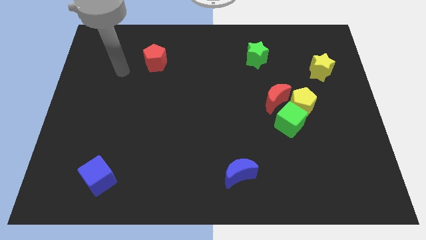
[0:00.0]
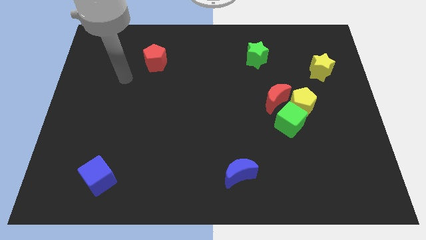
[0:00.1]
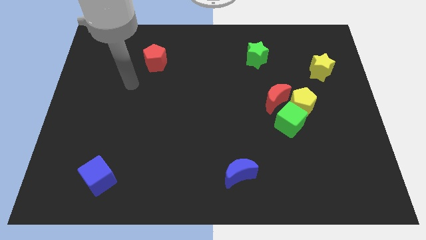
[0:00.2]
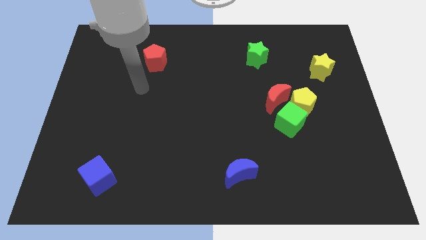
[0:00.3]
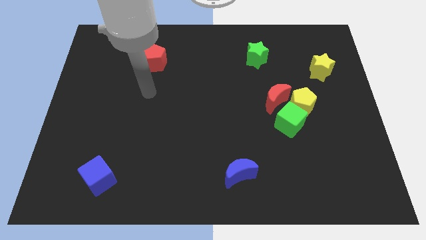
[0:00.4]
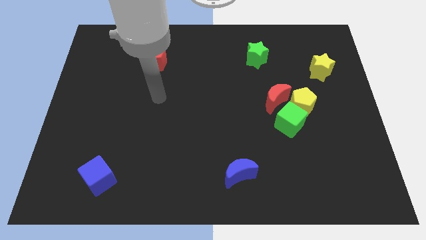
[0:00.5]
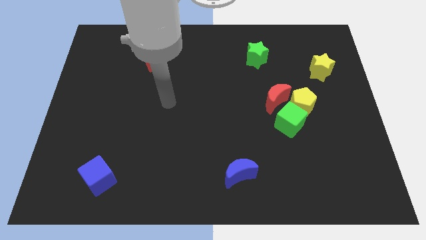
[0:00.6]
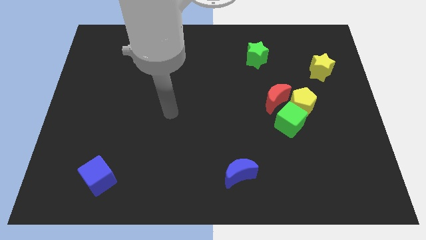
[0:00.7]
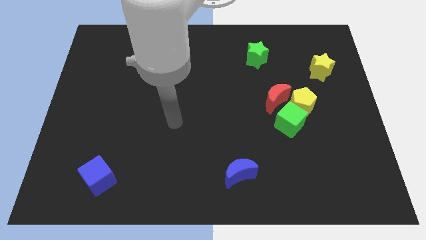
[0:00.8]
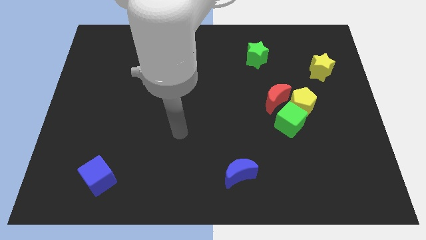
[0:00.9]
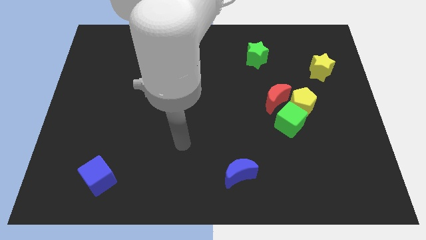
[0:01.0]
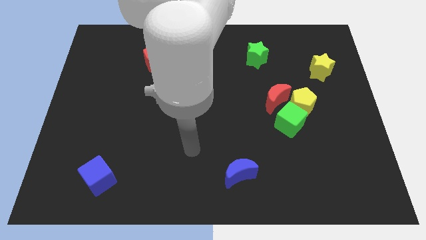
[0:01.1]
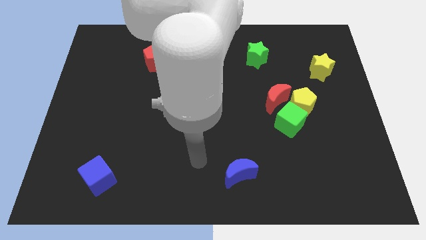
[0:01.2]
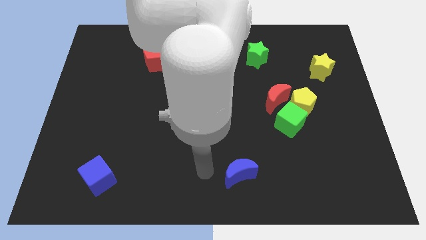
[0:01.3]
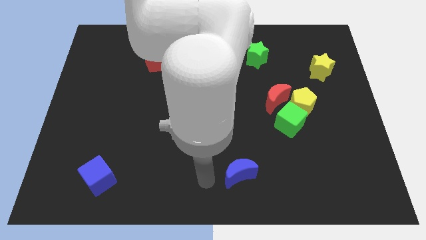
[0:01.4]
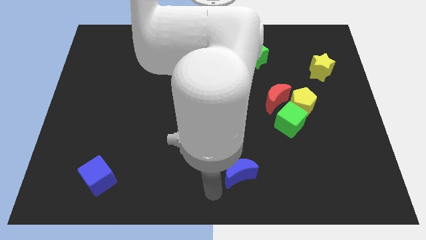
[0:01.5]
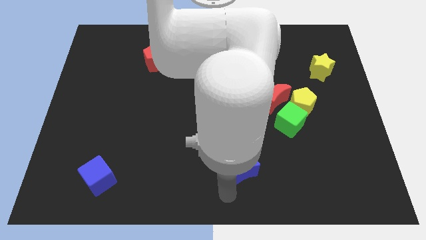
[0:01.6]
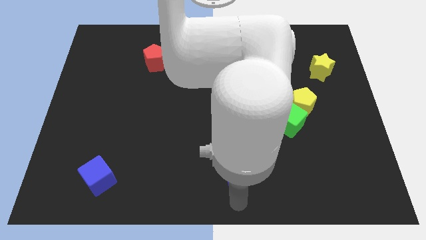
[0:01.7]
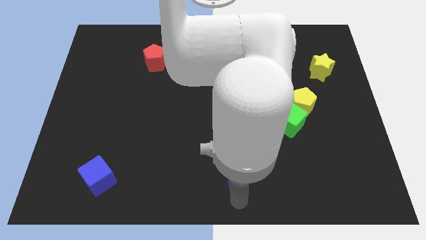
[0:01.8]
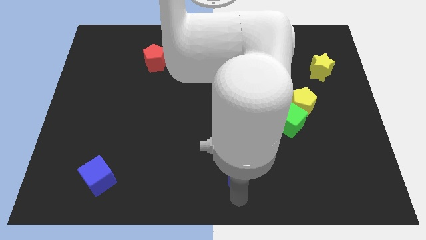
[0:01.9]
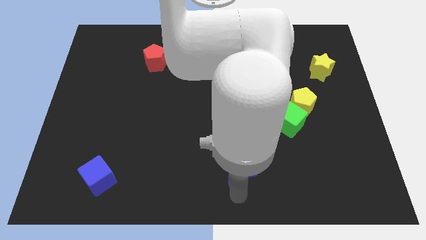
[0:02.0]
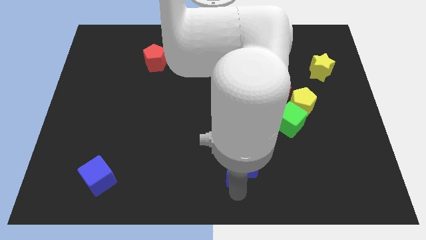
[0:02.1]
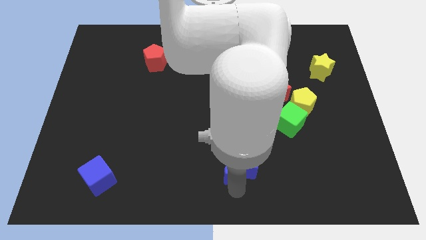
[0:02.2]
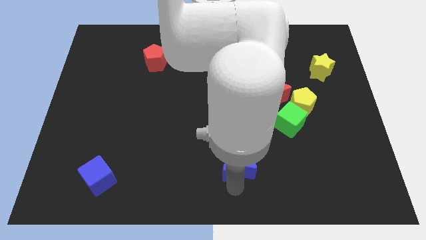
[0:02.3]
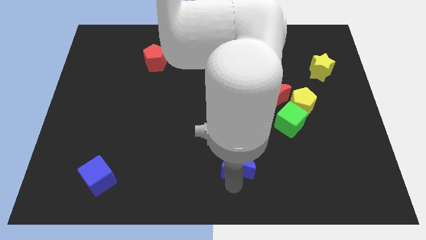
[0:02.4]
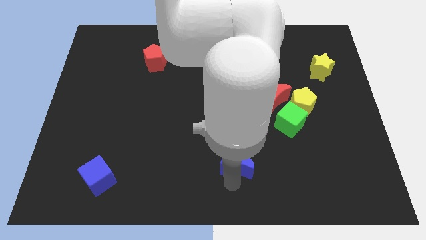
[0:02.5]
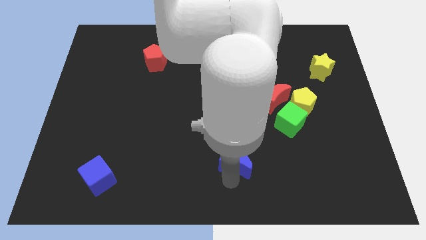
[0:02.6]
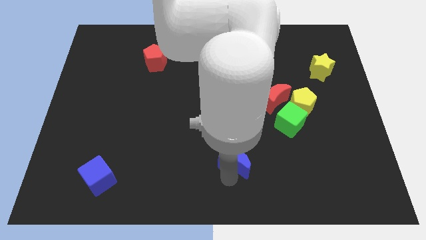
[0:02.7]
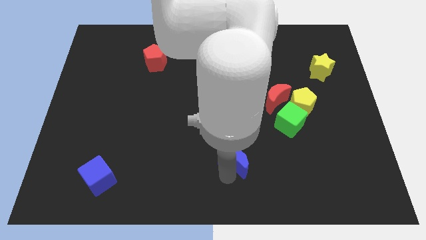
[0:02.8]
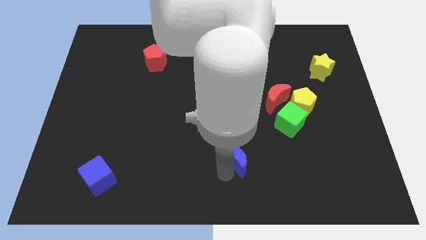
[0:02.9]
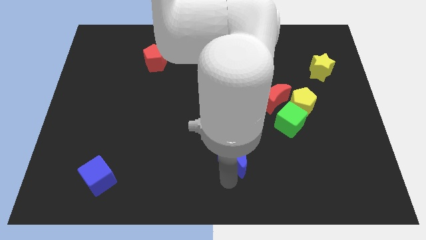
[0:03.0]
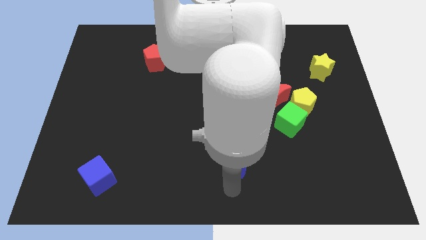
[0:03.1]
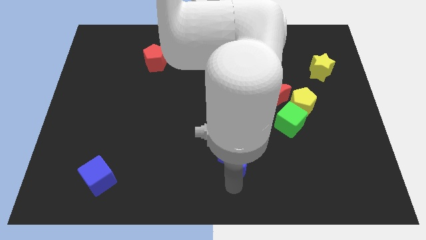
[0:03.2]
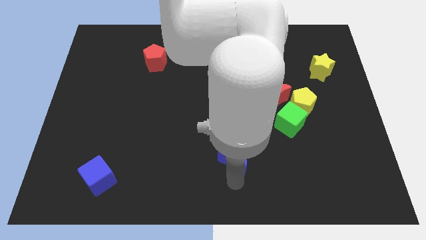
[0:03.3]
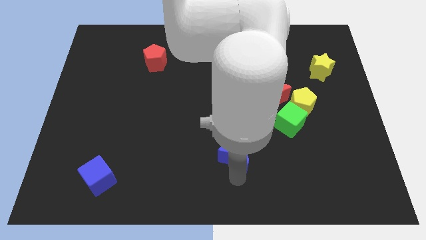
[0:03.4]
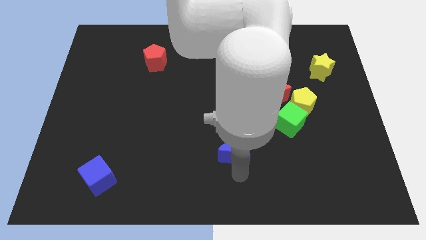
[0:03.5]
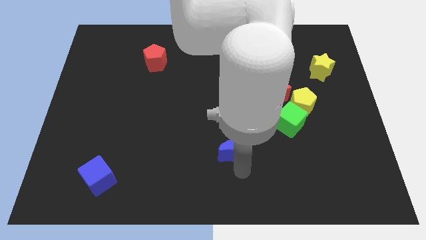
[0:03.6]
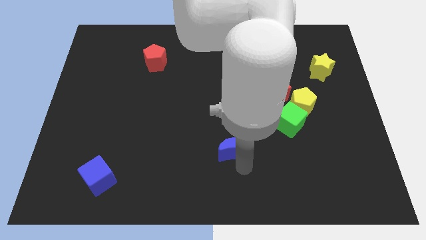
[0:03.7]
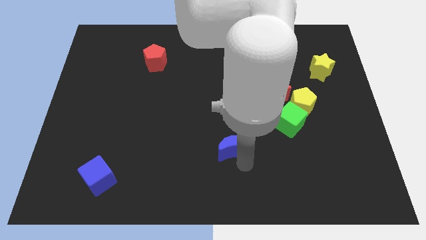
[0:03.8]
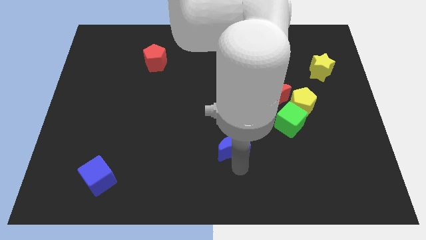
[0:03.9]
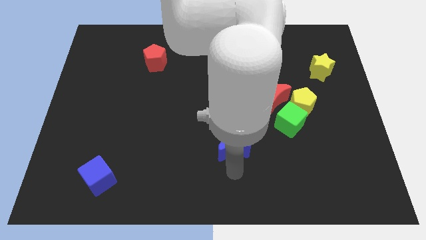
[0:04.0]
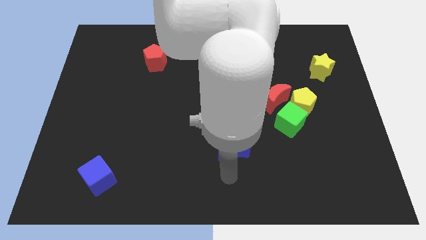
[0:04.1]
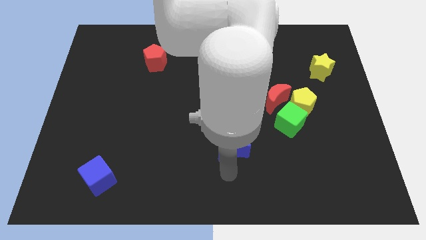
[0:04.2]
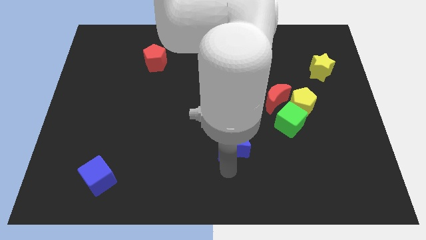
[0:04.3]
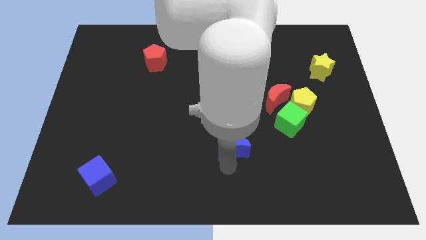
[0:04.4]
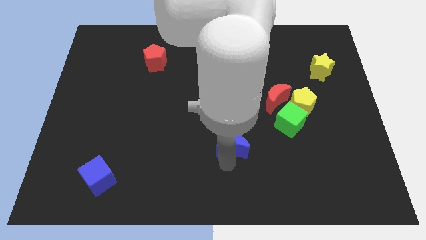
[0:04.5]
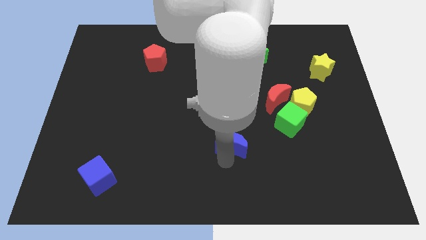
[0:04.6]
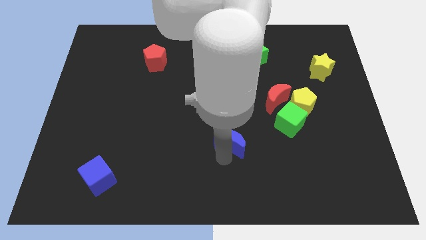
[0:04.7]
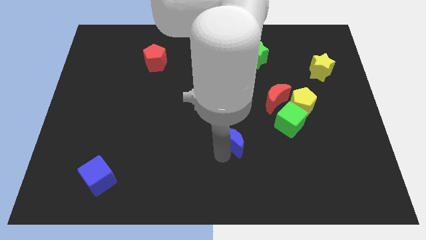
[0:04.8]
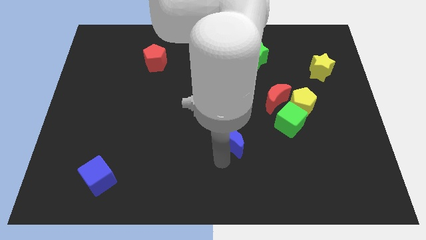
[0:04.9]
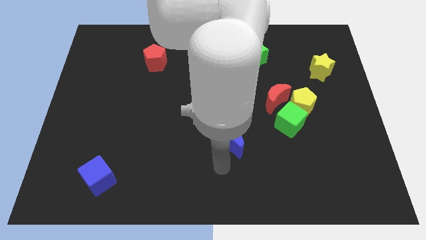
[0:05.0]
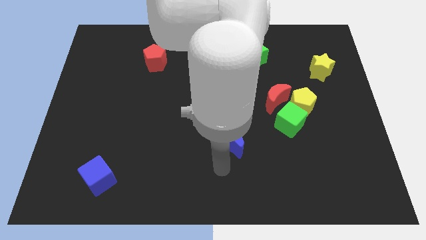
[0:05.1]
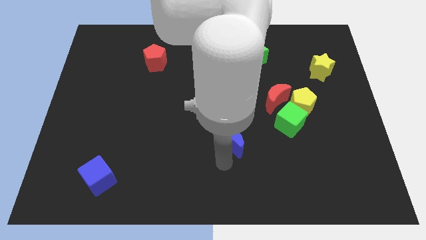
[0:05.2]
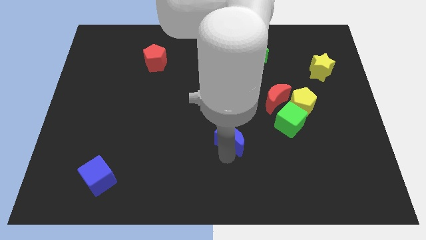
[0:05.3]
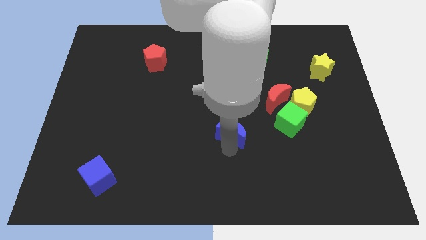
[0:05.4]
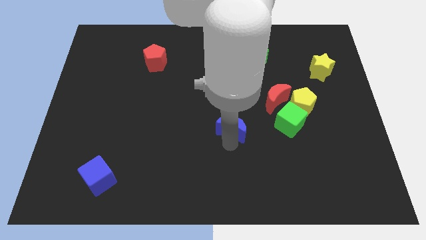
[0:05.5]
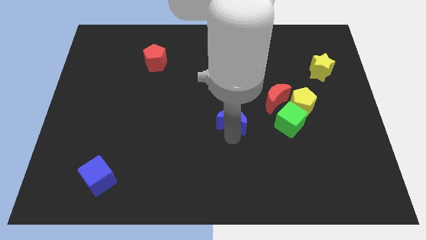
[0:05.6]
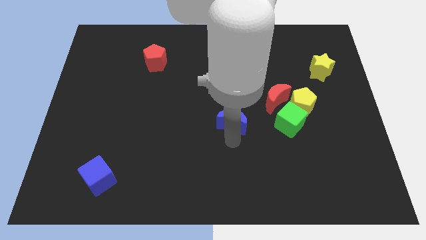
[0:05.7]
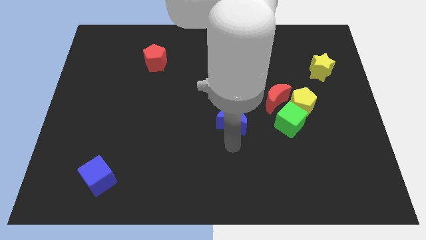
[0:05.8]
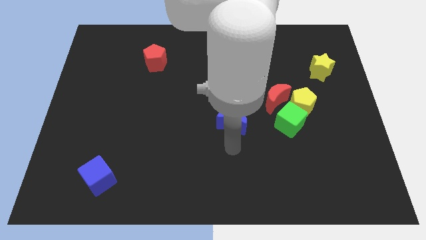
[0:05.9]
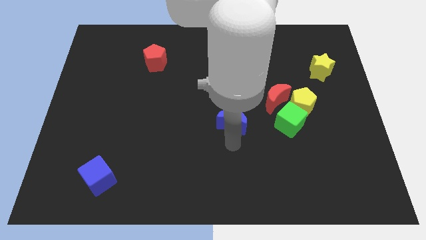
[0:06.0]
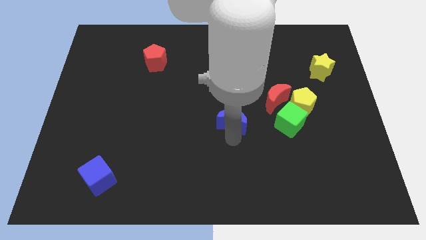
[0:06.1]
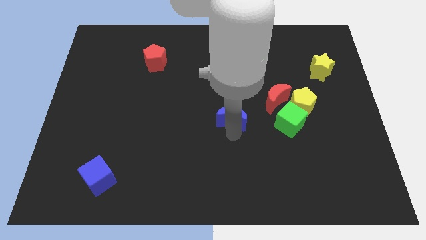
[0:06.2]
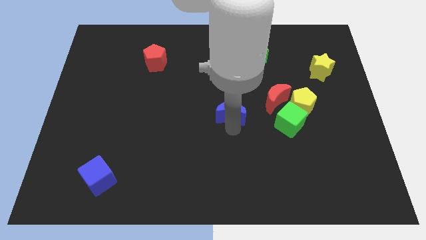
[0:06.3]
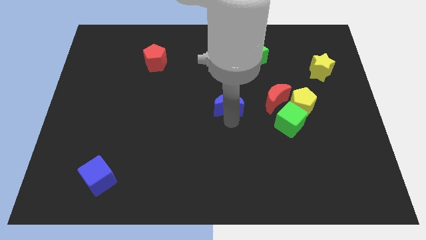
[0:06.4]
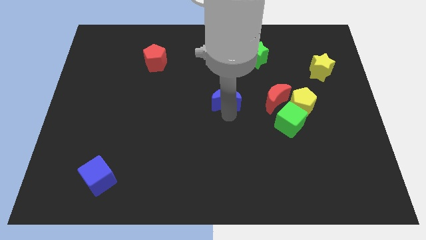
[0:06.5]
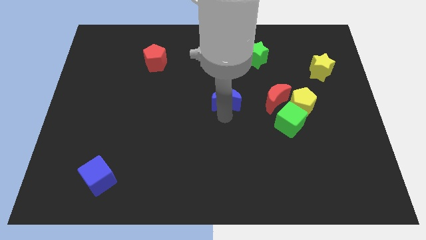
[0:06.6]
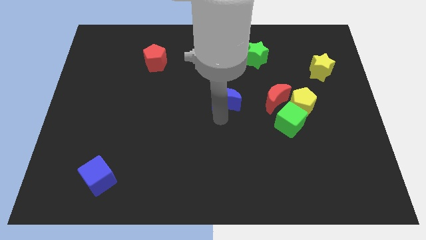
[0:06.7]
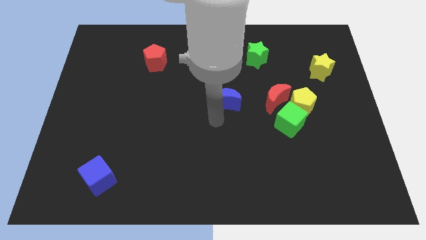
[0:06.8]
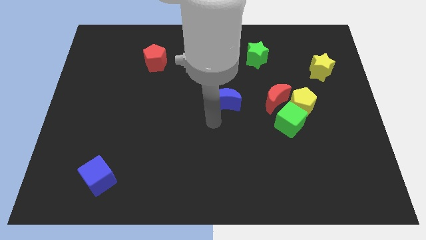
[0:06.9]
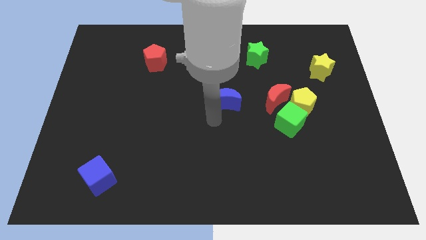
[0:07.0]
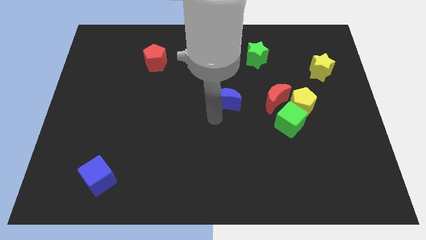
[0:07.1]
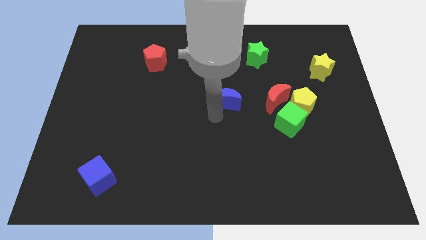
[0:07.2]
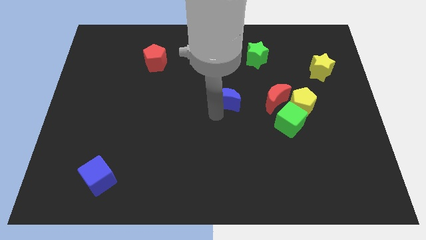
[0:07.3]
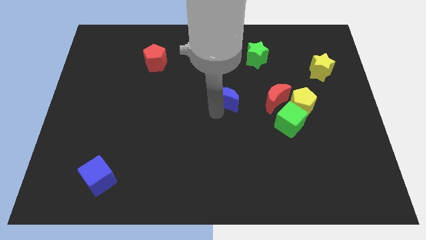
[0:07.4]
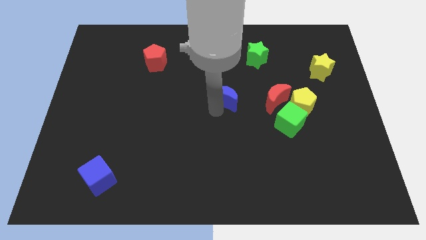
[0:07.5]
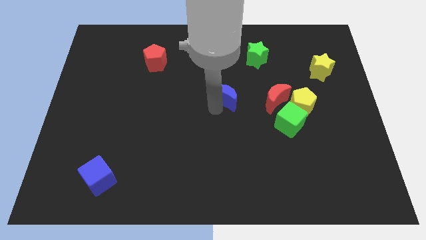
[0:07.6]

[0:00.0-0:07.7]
slide the blue moon up
